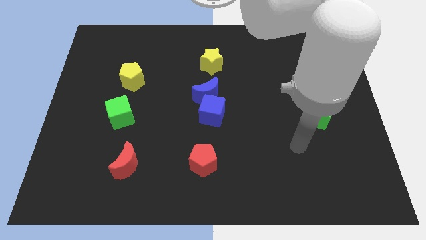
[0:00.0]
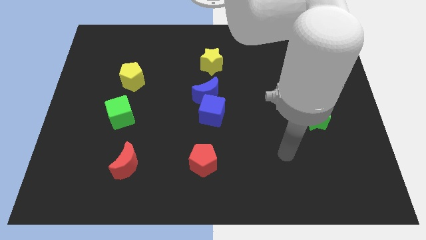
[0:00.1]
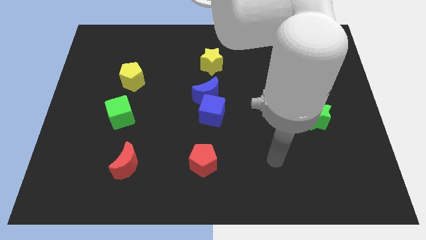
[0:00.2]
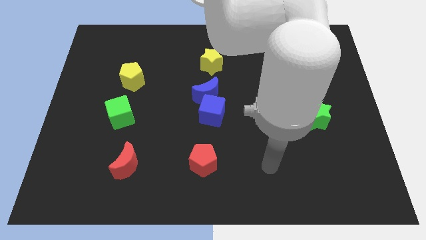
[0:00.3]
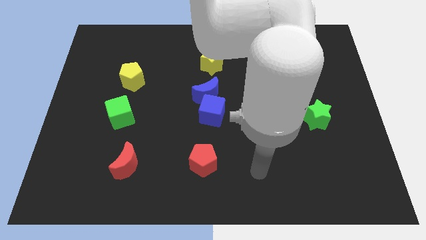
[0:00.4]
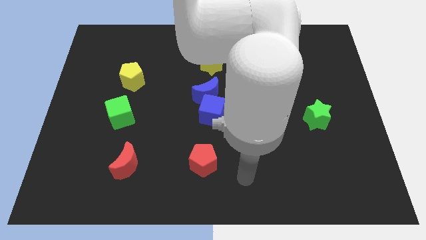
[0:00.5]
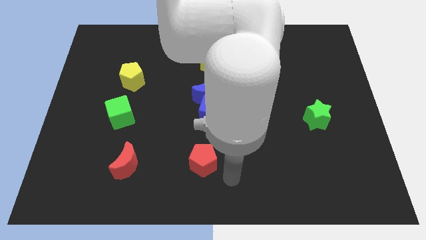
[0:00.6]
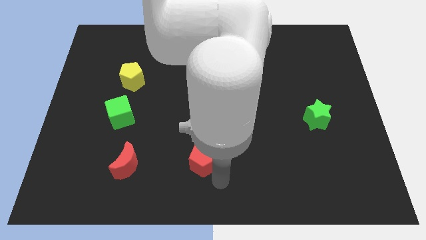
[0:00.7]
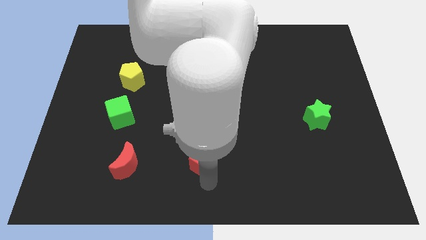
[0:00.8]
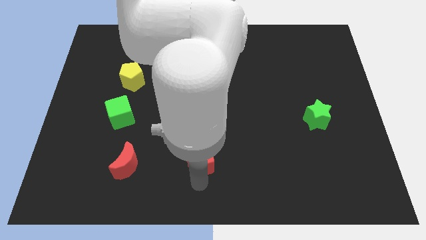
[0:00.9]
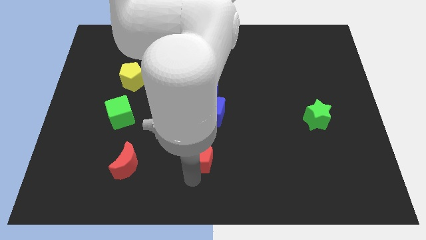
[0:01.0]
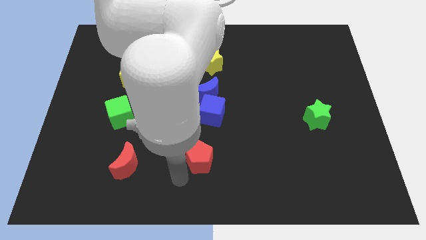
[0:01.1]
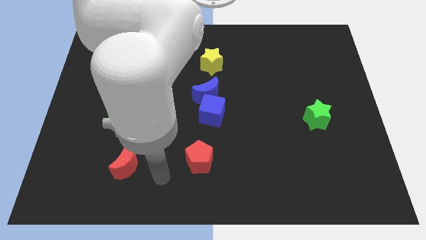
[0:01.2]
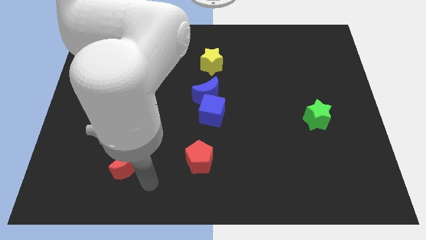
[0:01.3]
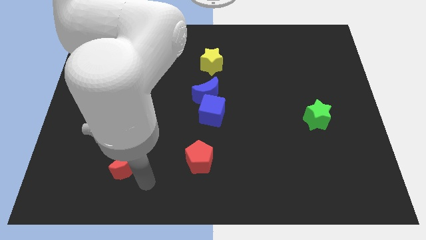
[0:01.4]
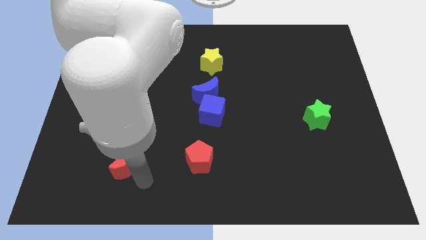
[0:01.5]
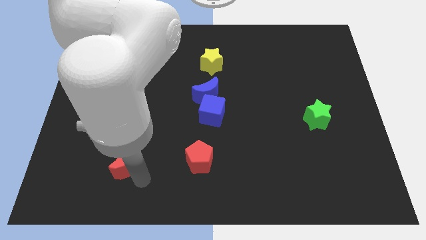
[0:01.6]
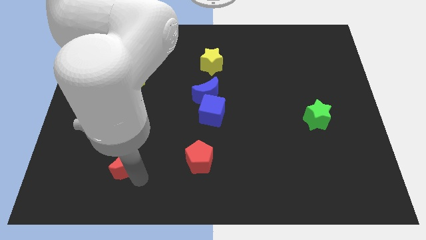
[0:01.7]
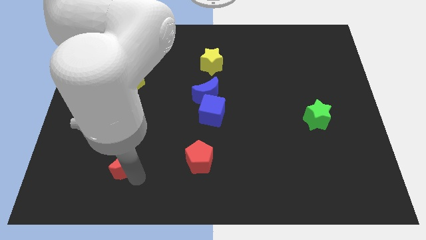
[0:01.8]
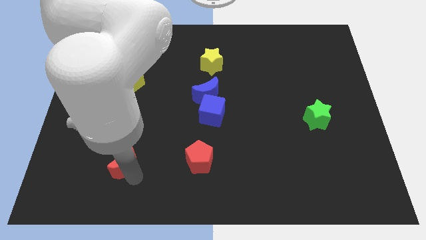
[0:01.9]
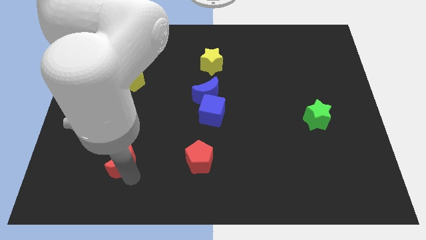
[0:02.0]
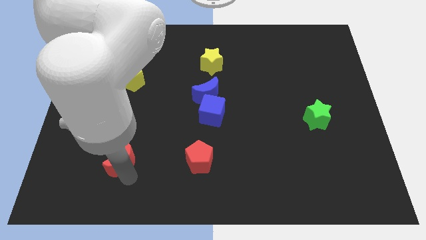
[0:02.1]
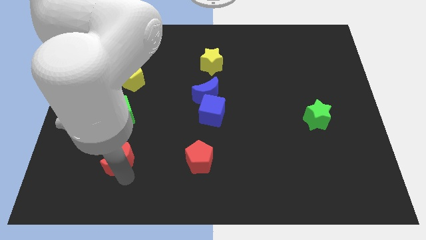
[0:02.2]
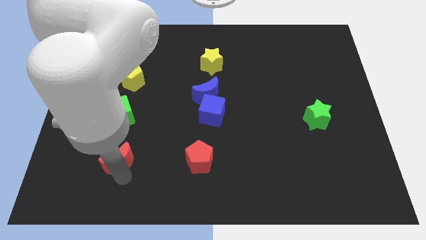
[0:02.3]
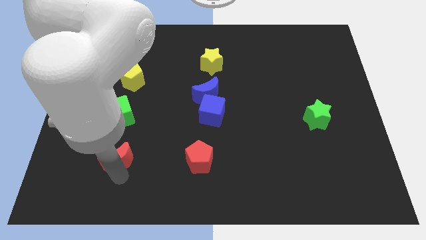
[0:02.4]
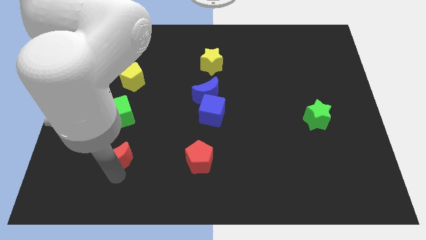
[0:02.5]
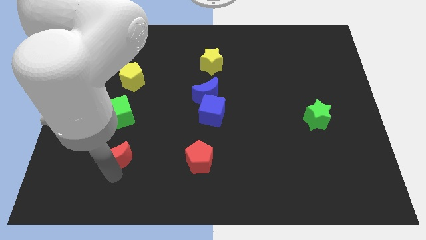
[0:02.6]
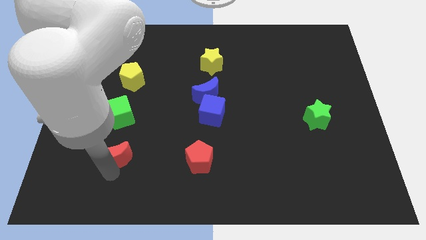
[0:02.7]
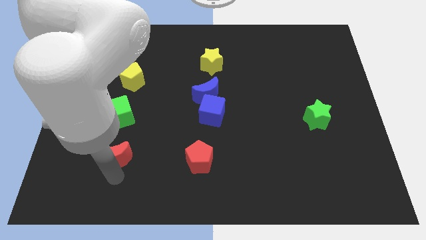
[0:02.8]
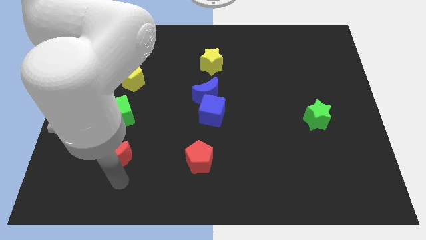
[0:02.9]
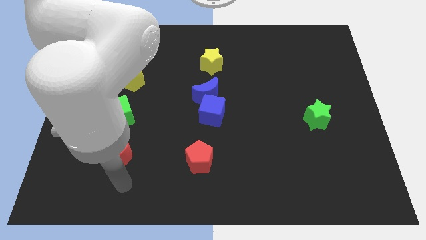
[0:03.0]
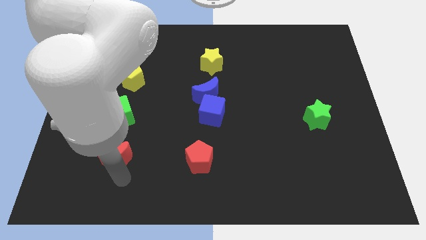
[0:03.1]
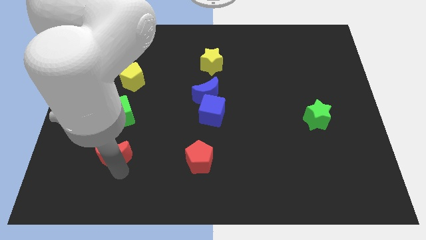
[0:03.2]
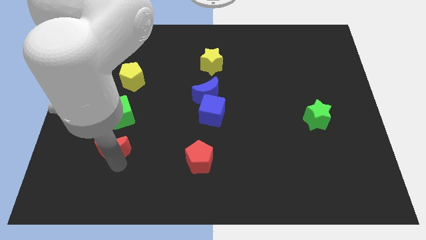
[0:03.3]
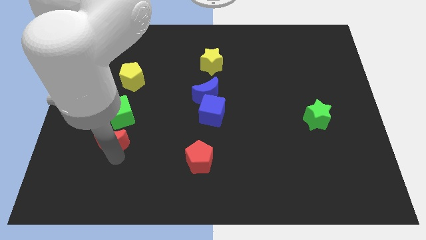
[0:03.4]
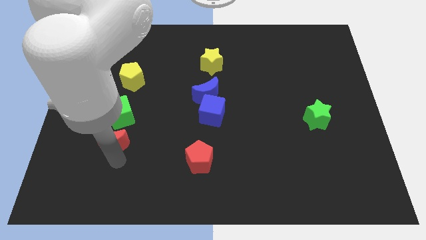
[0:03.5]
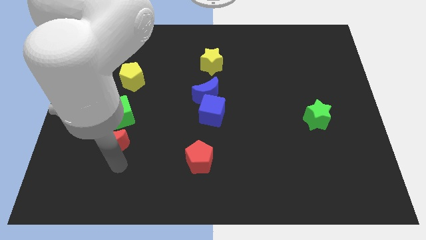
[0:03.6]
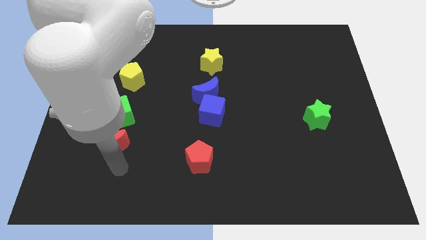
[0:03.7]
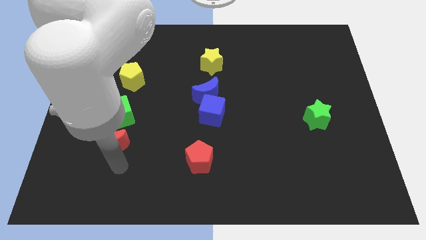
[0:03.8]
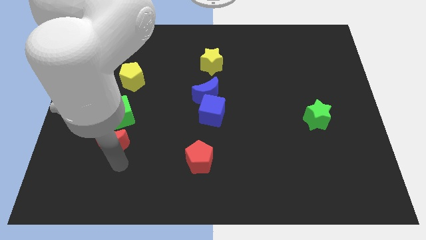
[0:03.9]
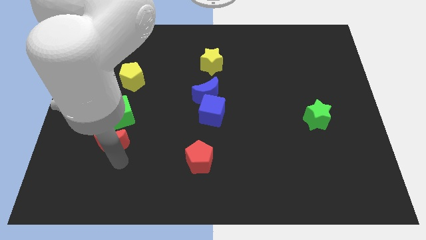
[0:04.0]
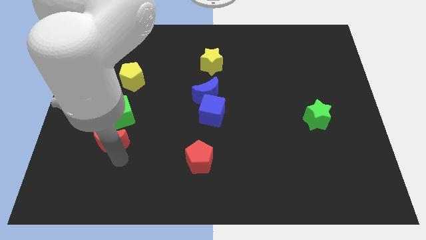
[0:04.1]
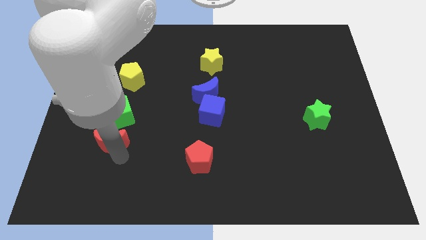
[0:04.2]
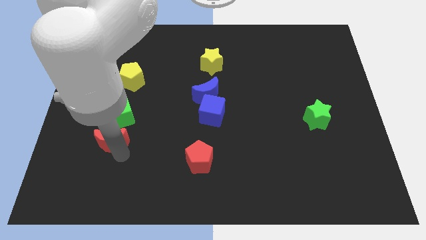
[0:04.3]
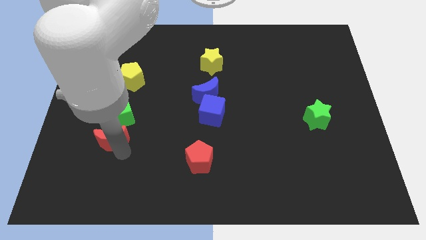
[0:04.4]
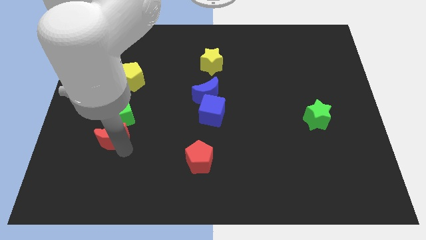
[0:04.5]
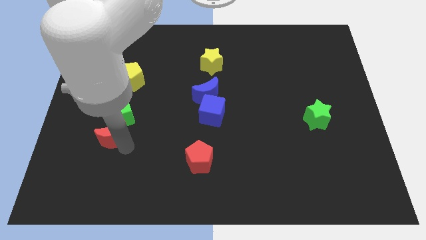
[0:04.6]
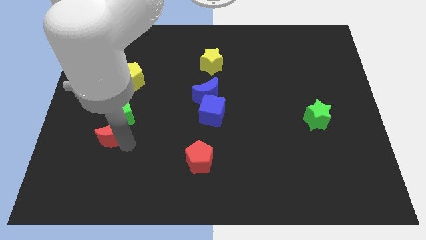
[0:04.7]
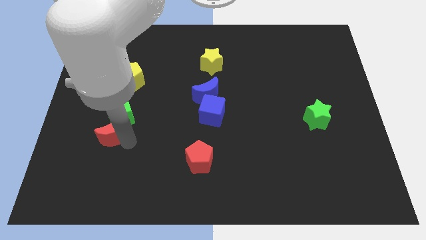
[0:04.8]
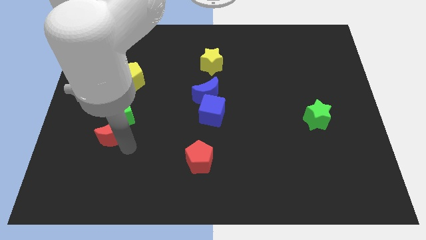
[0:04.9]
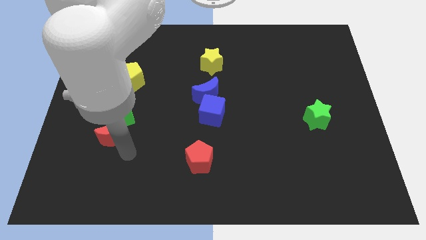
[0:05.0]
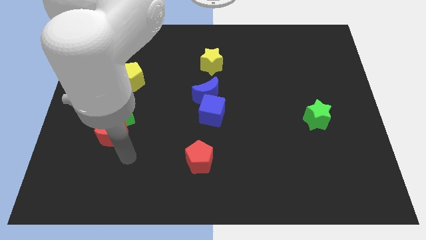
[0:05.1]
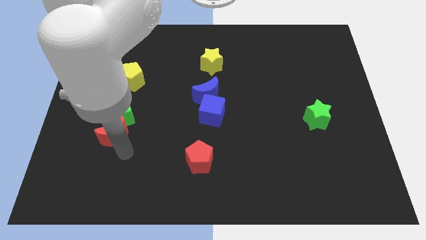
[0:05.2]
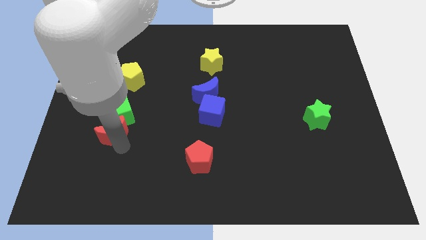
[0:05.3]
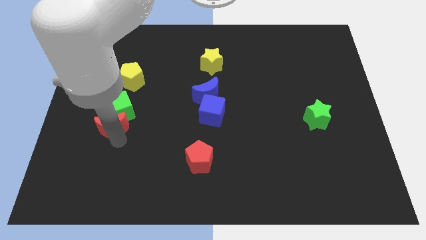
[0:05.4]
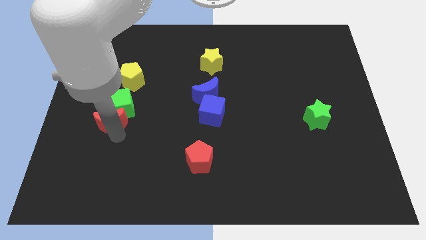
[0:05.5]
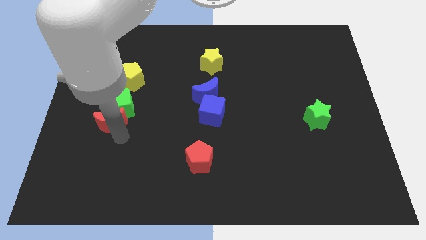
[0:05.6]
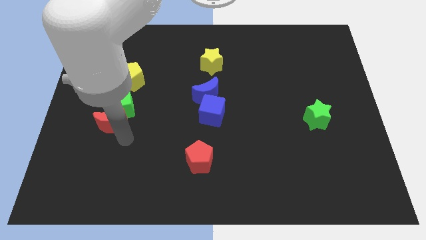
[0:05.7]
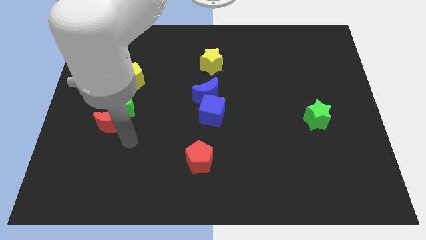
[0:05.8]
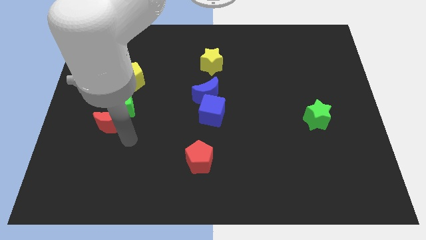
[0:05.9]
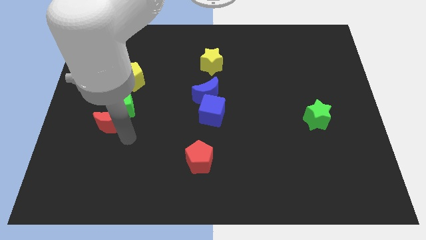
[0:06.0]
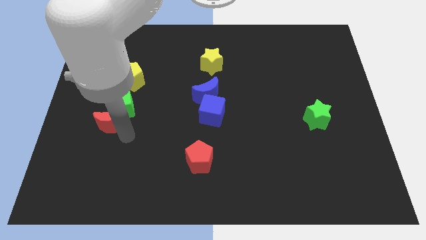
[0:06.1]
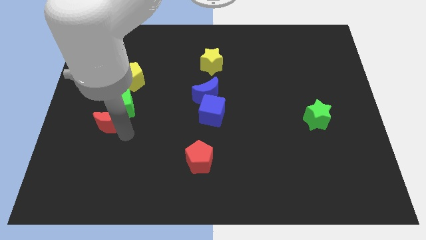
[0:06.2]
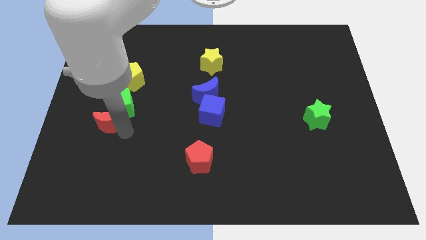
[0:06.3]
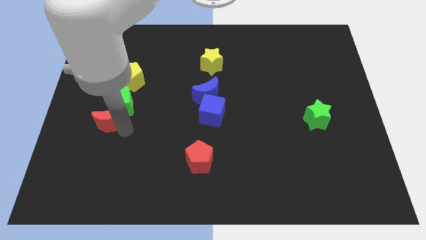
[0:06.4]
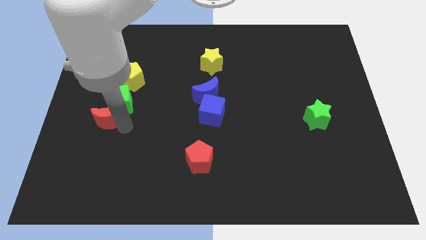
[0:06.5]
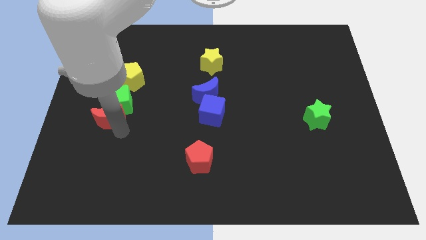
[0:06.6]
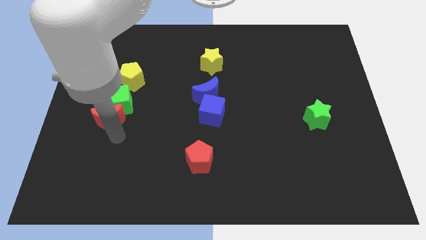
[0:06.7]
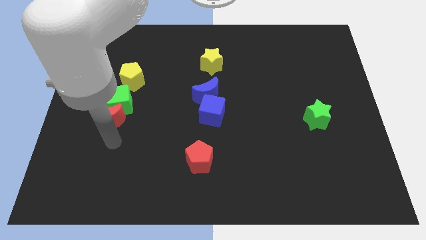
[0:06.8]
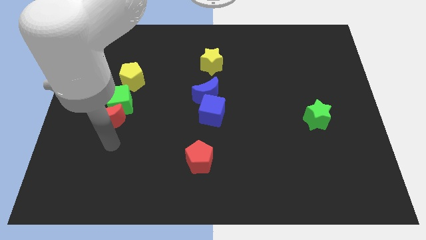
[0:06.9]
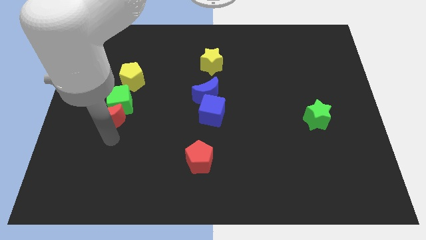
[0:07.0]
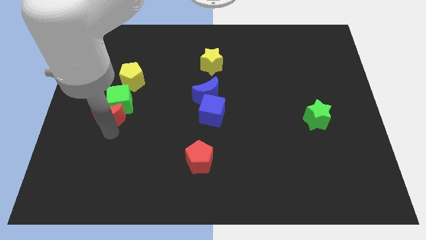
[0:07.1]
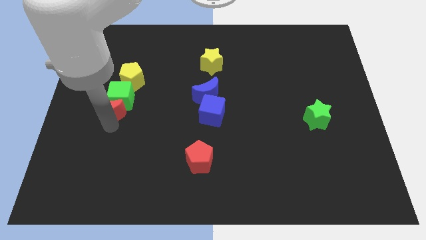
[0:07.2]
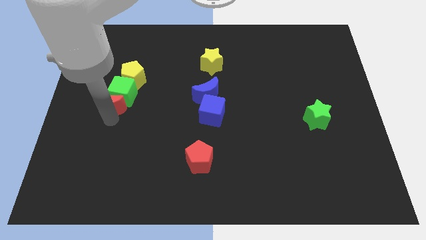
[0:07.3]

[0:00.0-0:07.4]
move the red moon to the bottom left side of the yellow pentagon

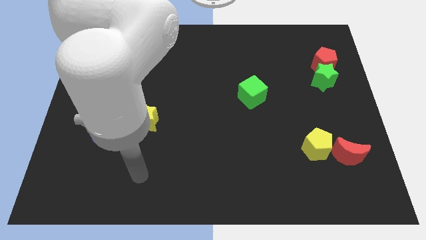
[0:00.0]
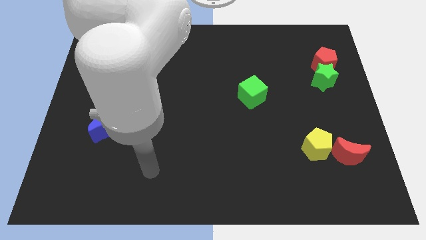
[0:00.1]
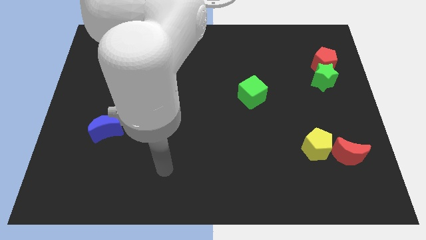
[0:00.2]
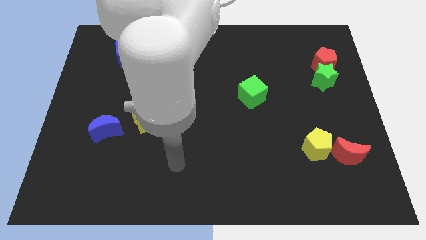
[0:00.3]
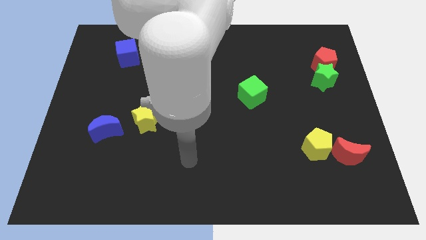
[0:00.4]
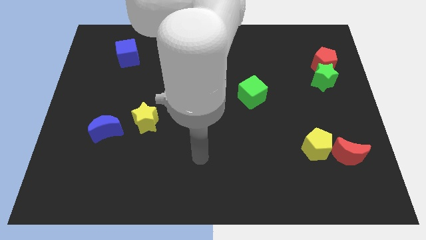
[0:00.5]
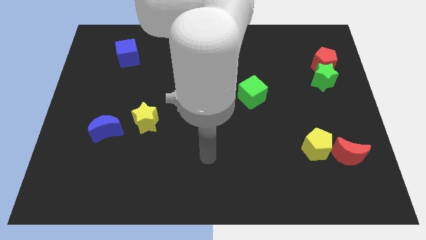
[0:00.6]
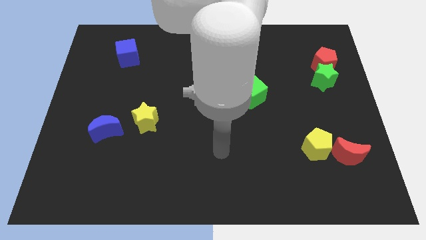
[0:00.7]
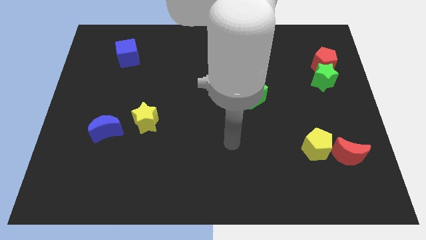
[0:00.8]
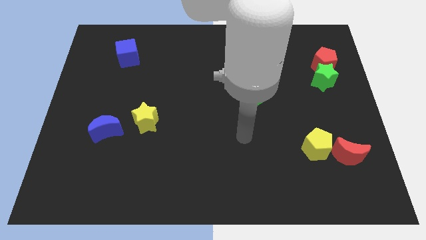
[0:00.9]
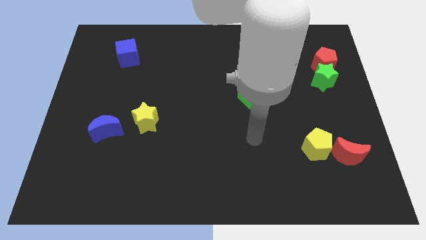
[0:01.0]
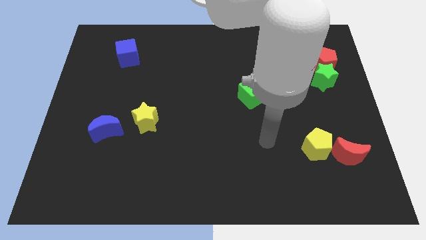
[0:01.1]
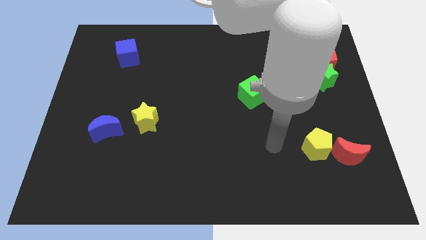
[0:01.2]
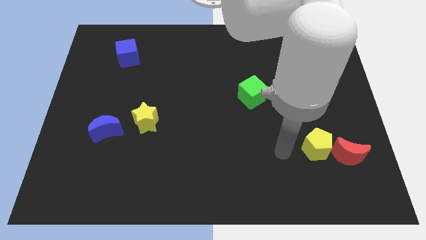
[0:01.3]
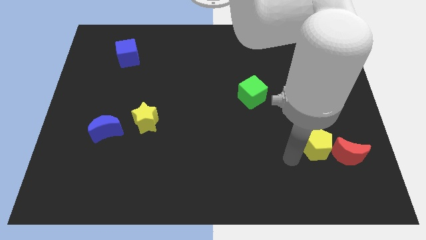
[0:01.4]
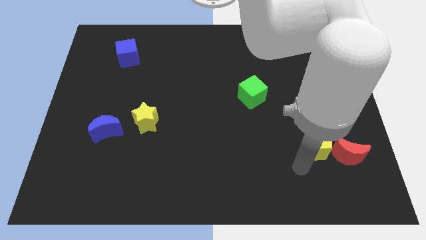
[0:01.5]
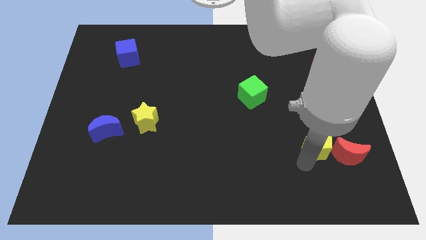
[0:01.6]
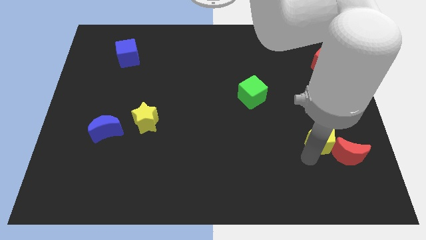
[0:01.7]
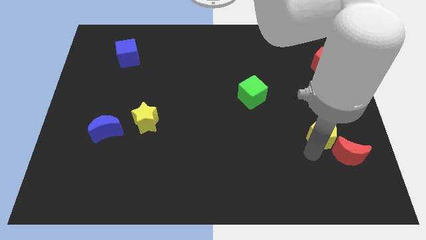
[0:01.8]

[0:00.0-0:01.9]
move the yellow pentagon above the red moon
